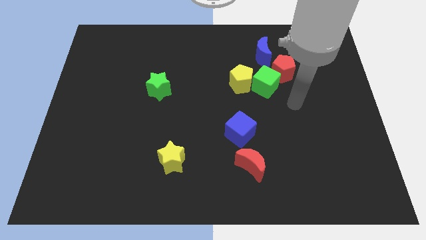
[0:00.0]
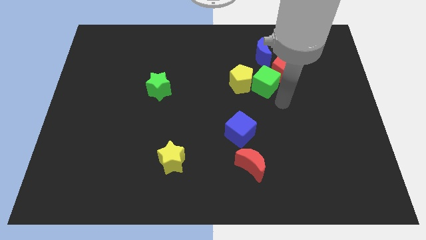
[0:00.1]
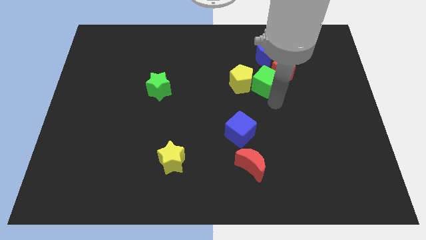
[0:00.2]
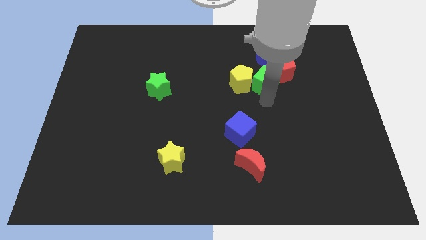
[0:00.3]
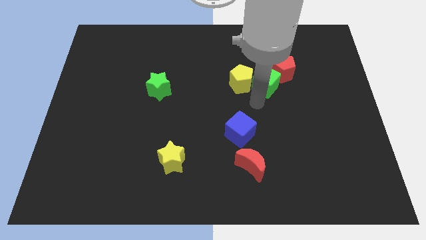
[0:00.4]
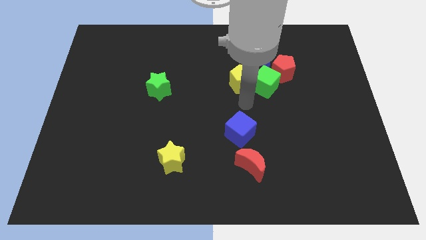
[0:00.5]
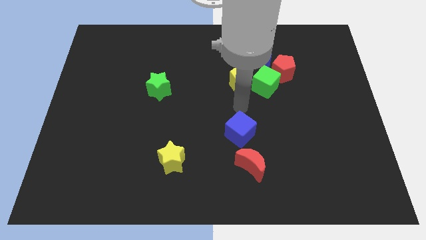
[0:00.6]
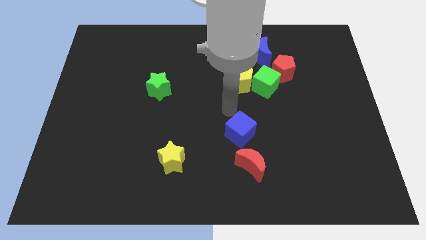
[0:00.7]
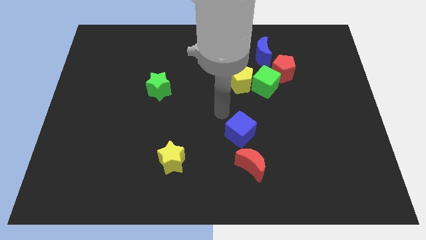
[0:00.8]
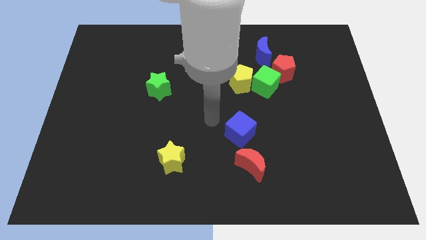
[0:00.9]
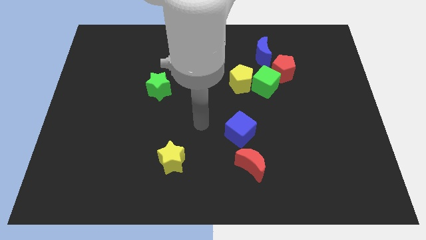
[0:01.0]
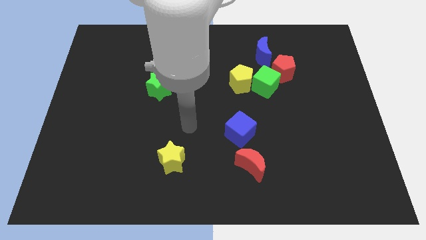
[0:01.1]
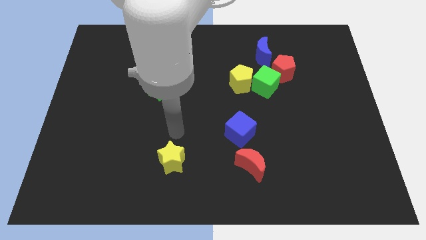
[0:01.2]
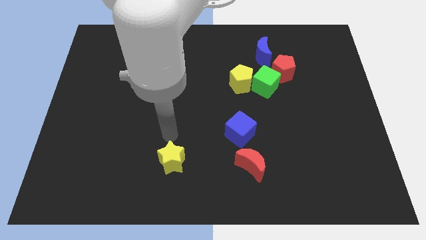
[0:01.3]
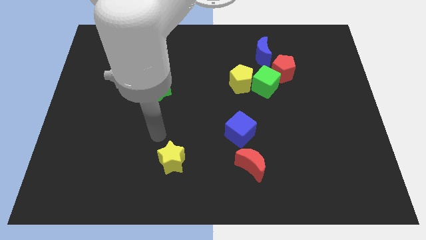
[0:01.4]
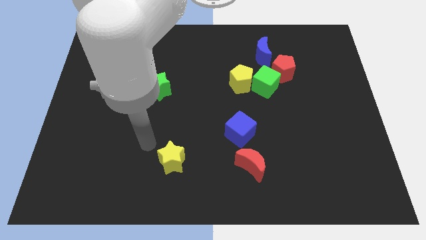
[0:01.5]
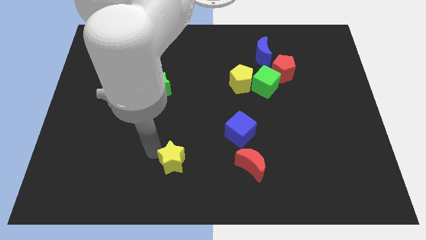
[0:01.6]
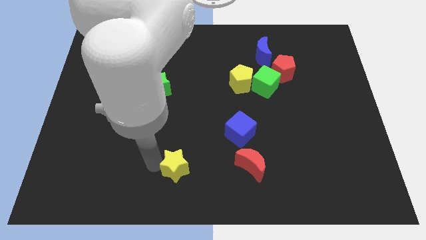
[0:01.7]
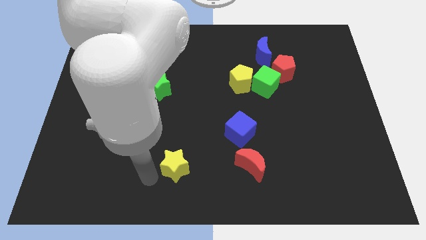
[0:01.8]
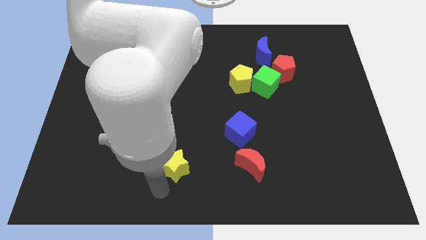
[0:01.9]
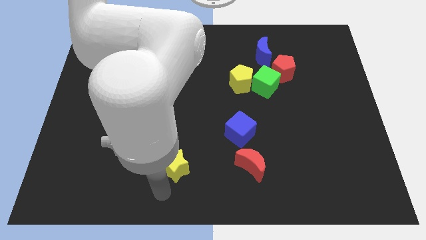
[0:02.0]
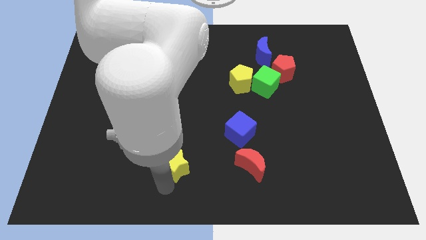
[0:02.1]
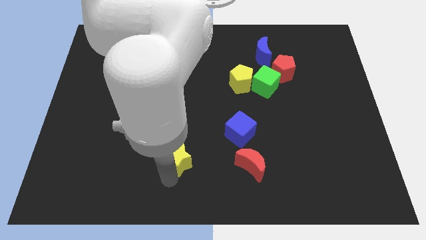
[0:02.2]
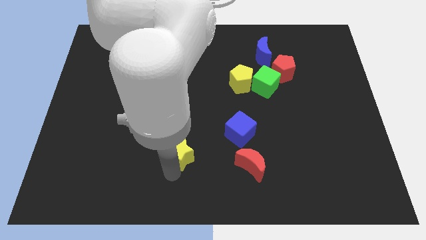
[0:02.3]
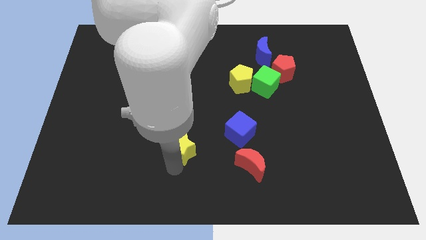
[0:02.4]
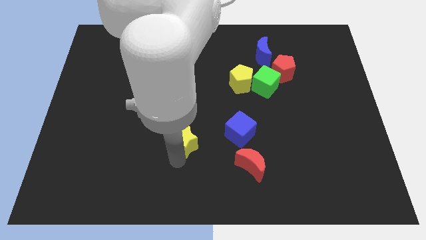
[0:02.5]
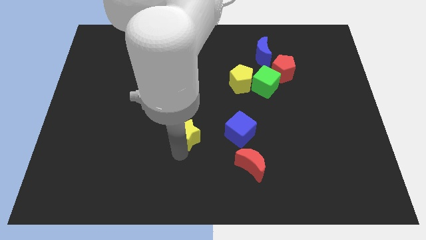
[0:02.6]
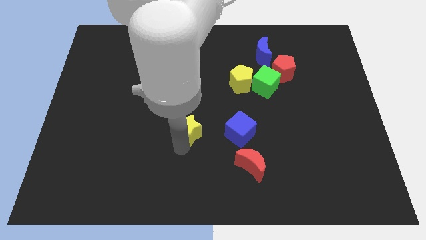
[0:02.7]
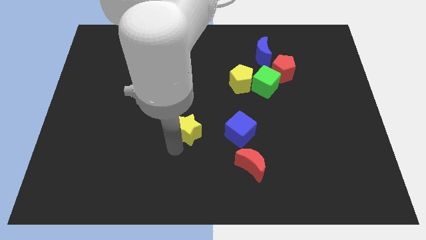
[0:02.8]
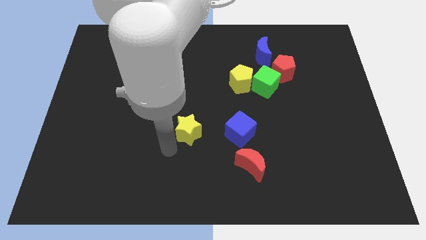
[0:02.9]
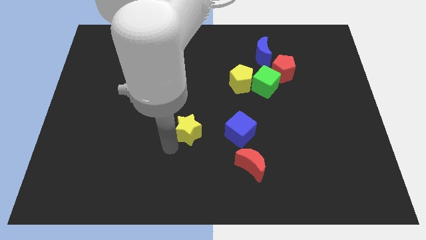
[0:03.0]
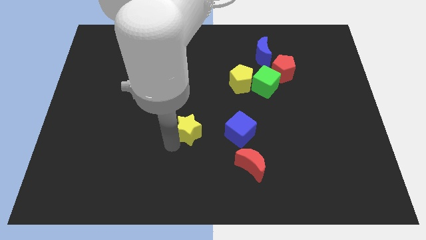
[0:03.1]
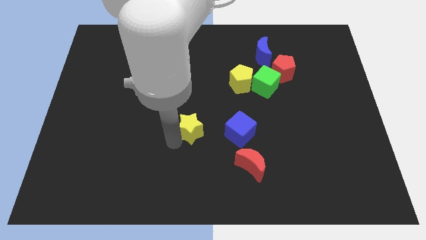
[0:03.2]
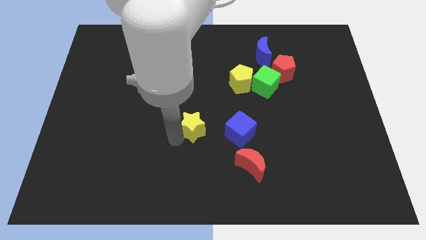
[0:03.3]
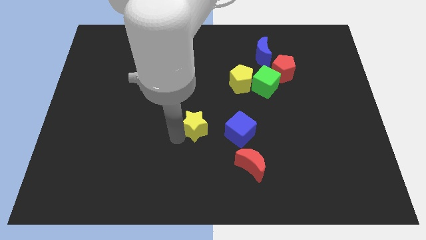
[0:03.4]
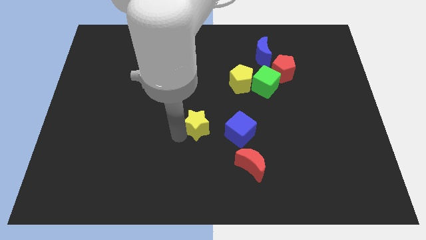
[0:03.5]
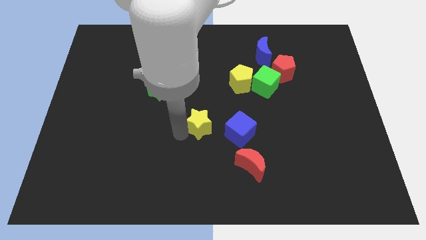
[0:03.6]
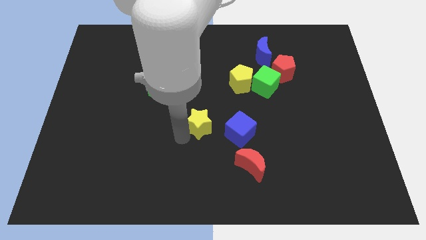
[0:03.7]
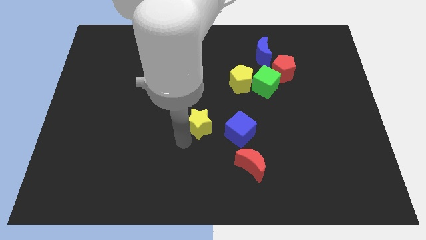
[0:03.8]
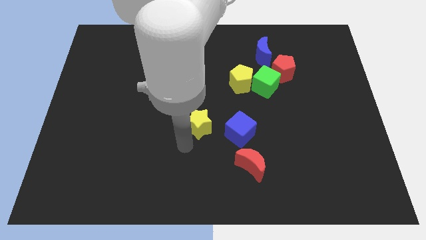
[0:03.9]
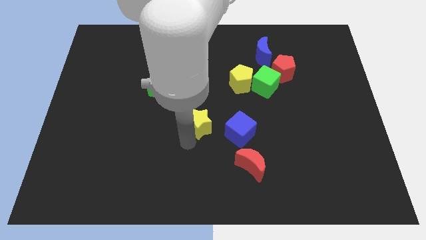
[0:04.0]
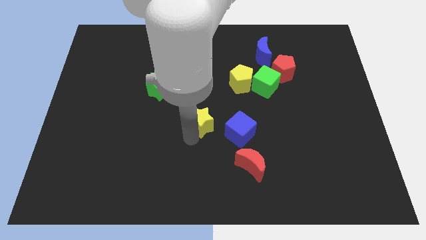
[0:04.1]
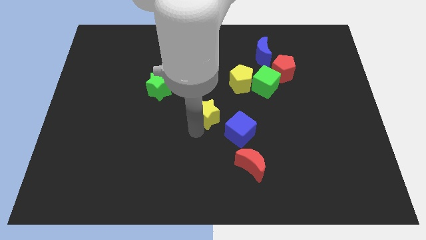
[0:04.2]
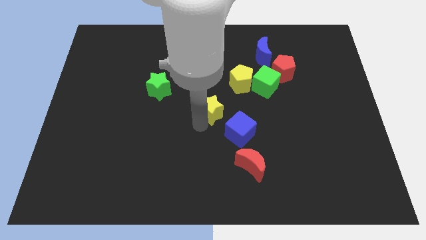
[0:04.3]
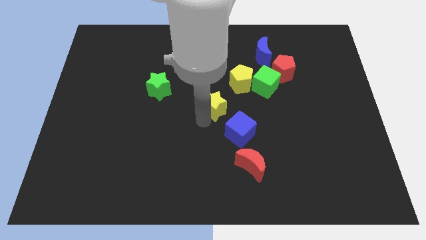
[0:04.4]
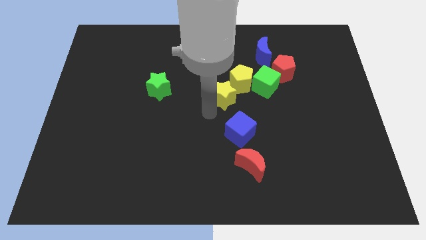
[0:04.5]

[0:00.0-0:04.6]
put the yellow star close to the yellow pentagon

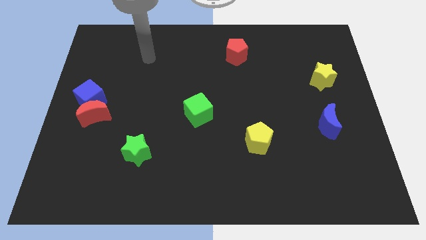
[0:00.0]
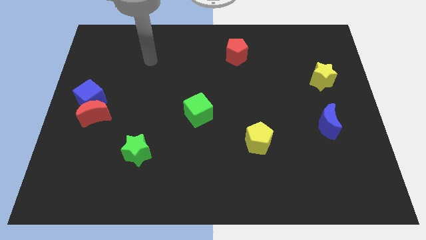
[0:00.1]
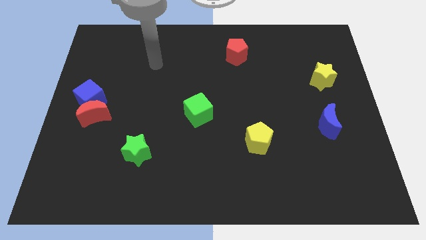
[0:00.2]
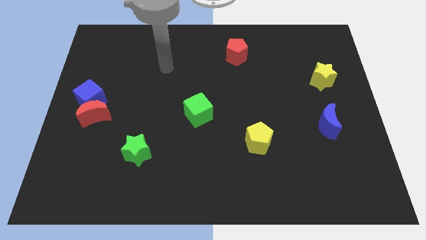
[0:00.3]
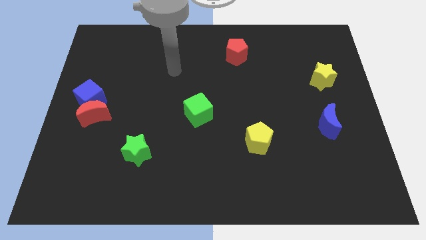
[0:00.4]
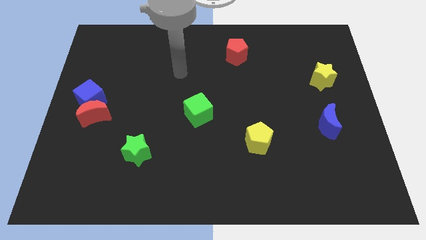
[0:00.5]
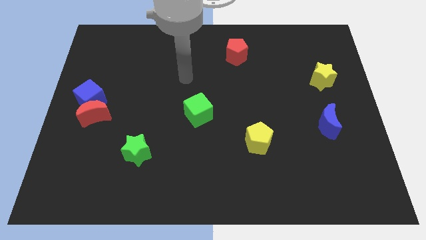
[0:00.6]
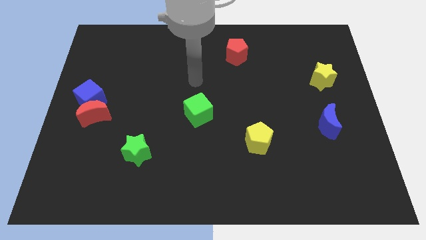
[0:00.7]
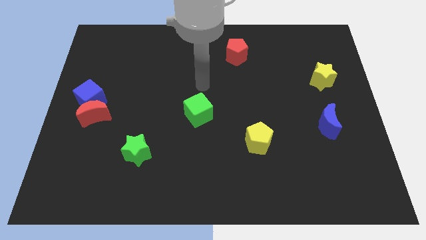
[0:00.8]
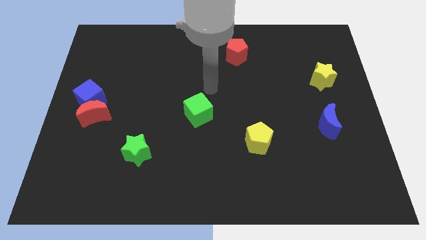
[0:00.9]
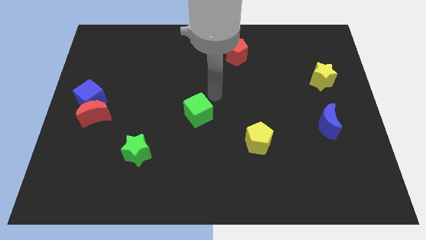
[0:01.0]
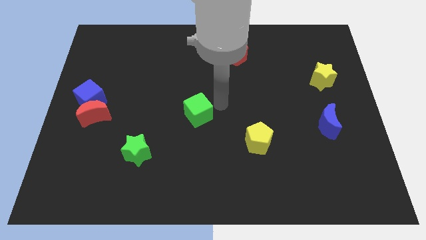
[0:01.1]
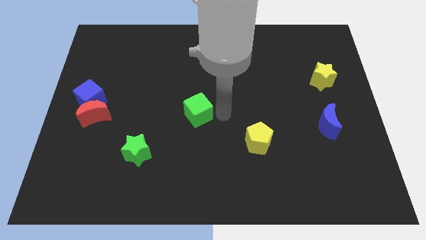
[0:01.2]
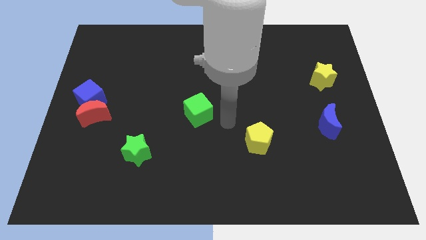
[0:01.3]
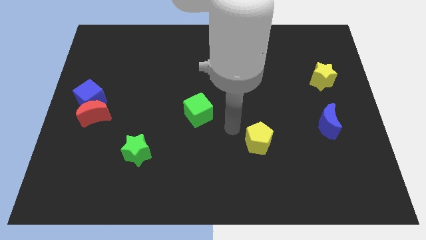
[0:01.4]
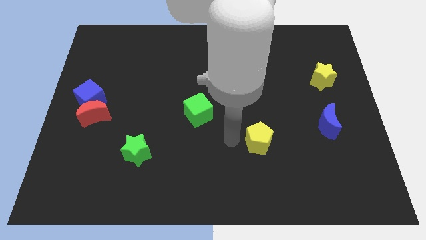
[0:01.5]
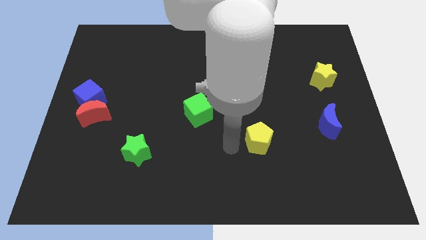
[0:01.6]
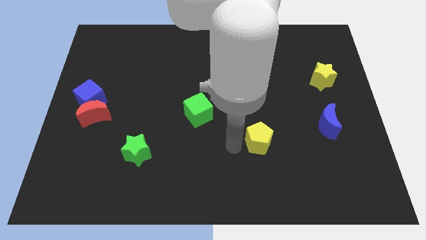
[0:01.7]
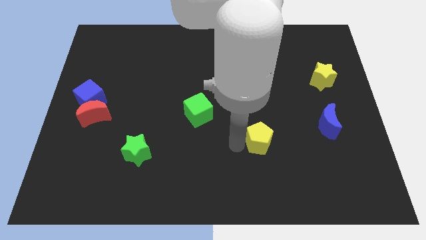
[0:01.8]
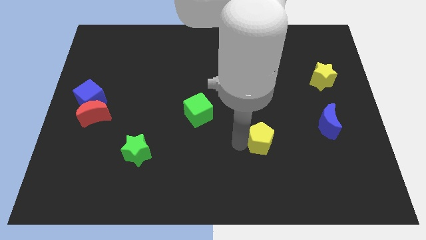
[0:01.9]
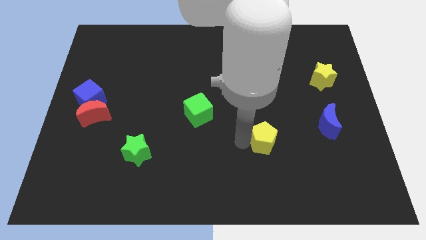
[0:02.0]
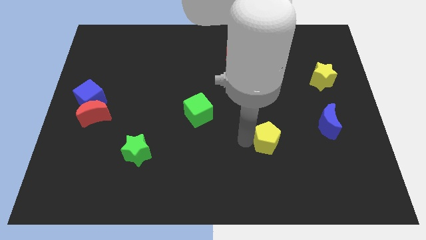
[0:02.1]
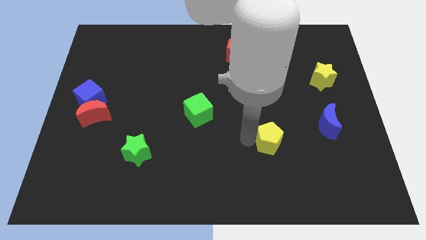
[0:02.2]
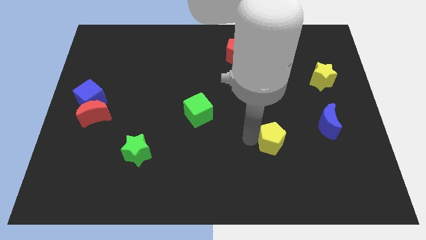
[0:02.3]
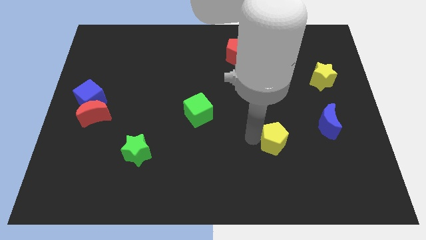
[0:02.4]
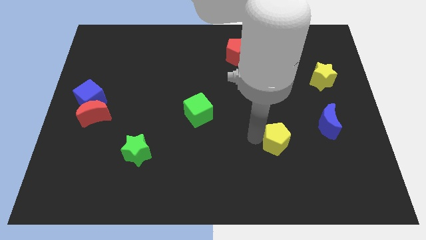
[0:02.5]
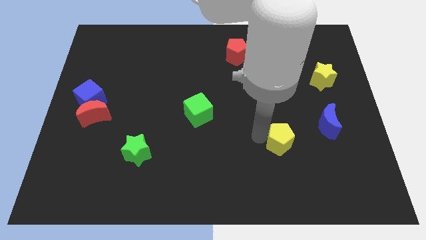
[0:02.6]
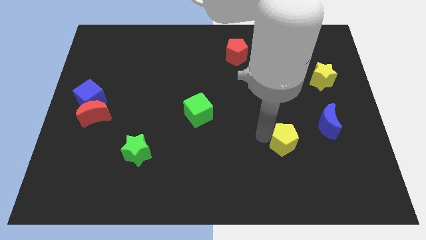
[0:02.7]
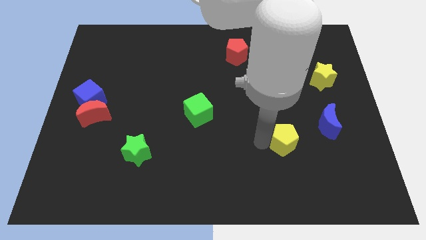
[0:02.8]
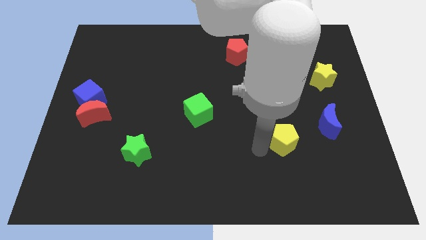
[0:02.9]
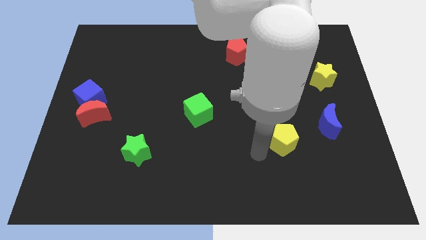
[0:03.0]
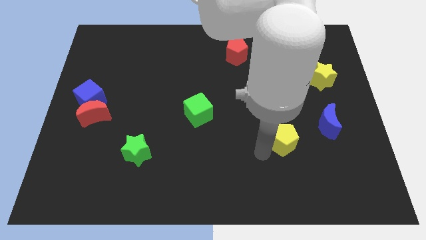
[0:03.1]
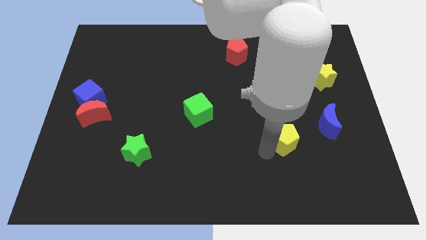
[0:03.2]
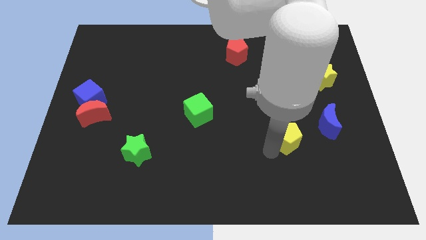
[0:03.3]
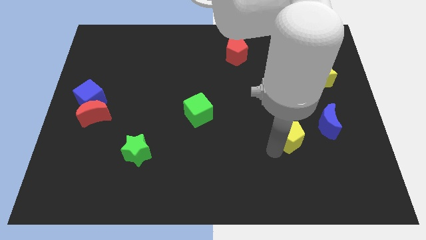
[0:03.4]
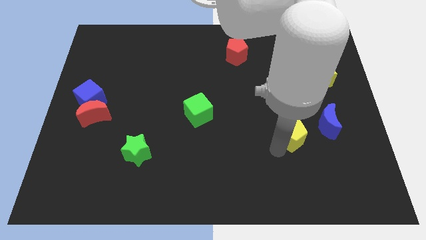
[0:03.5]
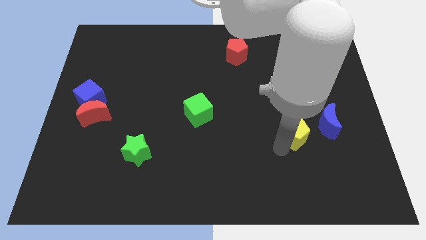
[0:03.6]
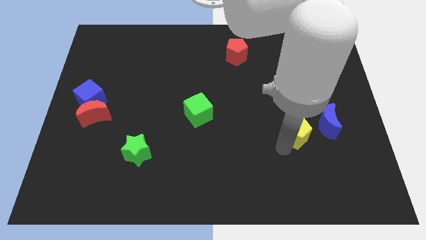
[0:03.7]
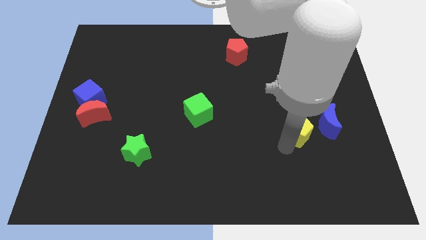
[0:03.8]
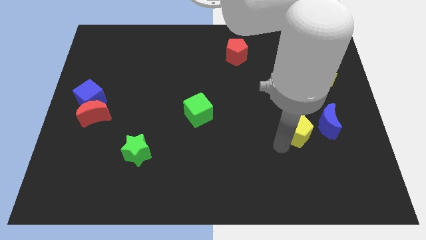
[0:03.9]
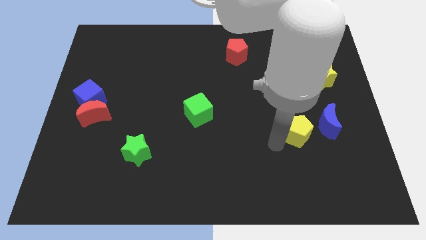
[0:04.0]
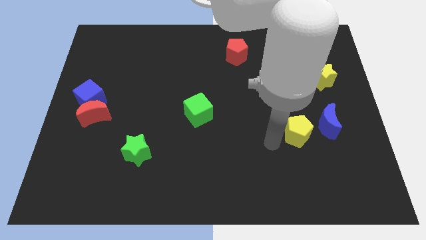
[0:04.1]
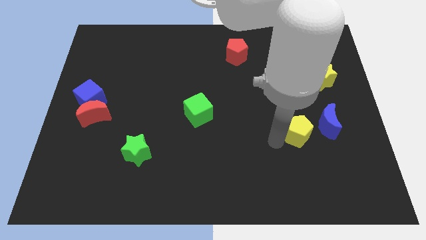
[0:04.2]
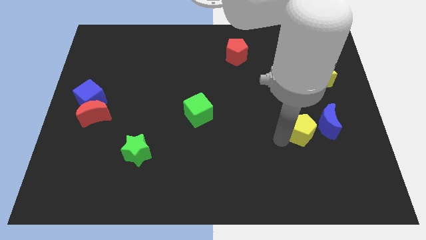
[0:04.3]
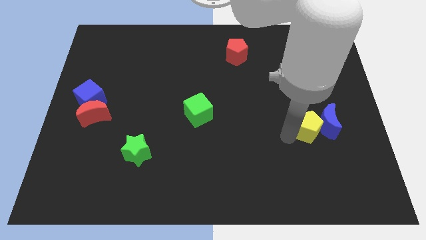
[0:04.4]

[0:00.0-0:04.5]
put the yellow pentagon next to the blue moon
